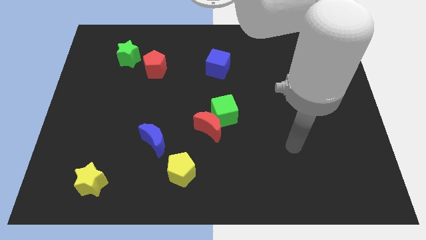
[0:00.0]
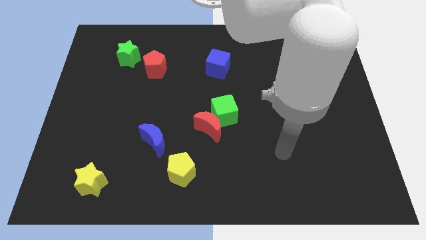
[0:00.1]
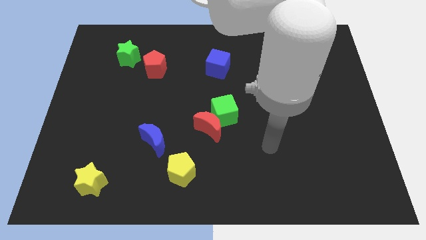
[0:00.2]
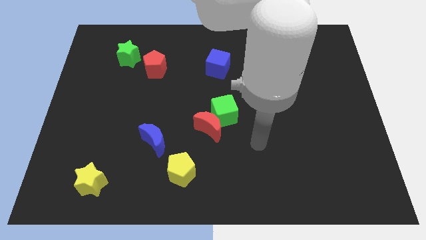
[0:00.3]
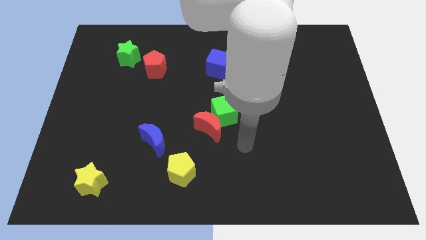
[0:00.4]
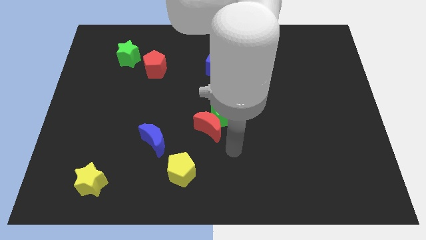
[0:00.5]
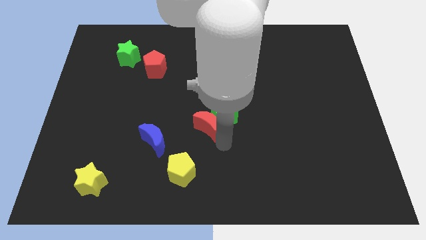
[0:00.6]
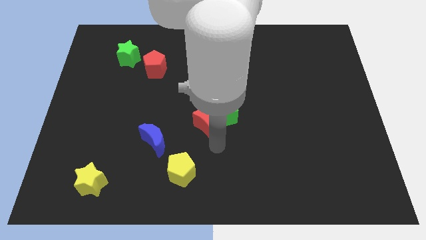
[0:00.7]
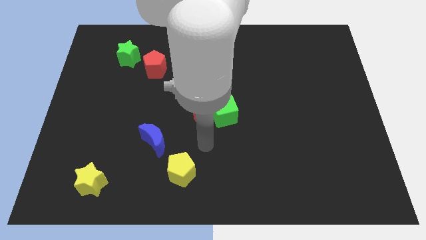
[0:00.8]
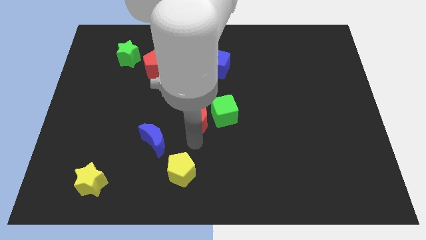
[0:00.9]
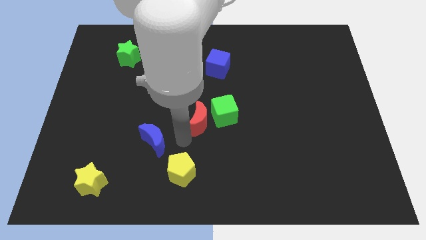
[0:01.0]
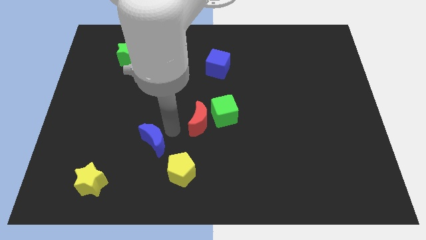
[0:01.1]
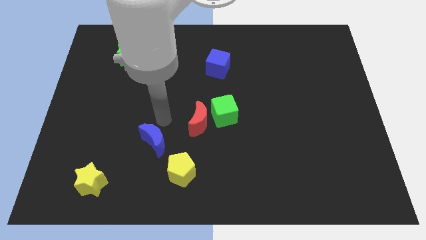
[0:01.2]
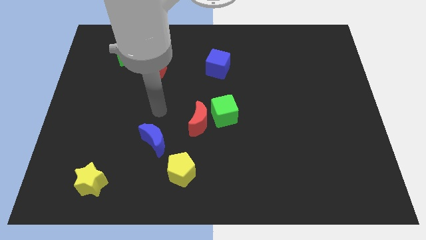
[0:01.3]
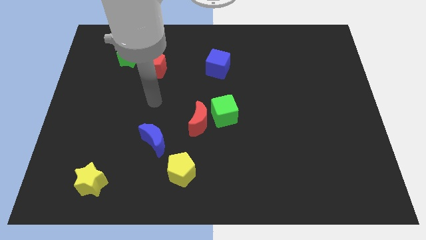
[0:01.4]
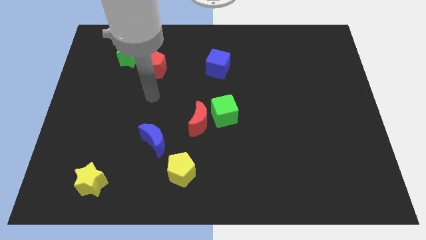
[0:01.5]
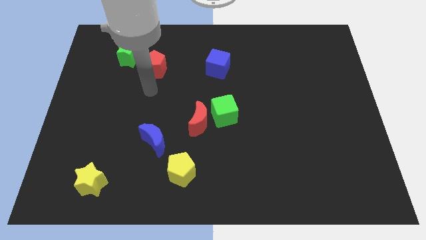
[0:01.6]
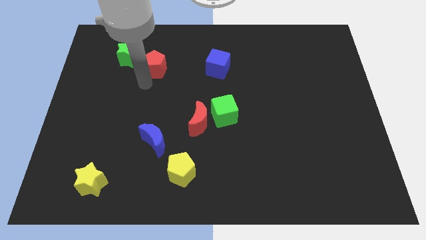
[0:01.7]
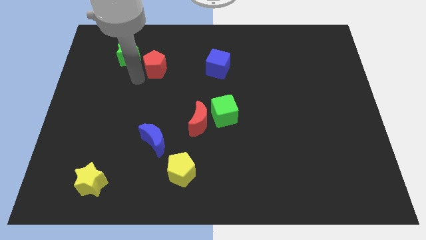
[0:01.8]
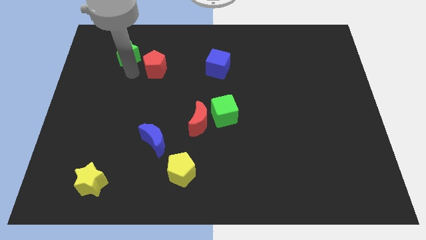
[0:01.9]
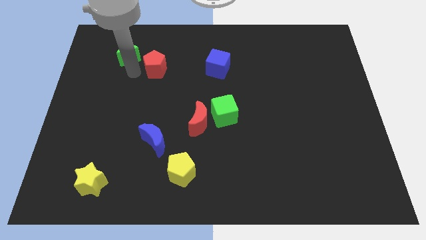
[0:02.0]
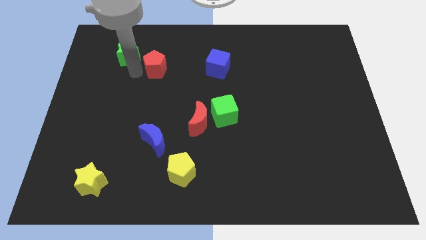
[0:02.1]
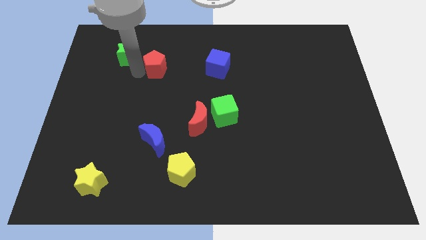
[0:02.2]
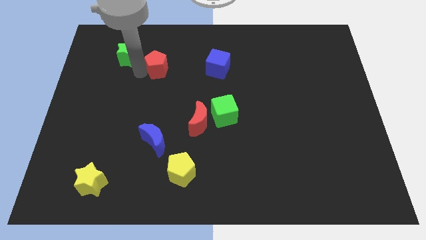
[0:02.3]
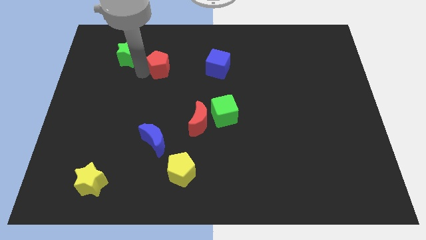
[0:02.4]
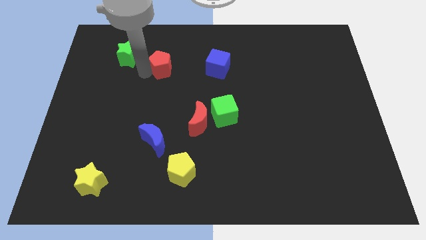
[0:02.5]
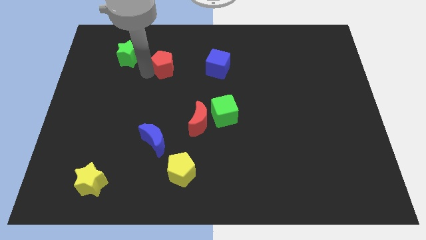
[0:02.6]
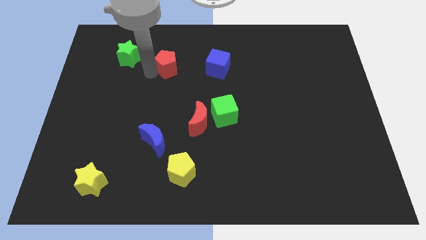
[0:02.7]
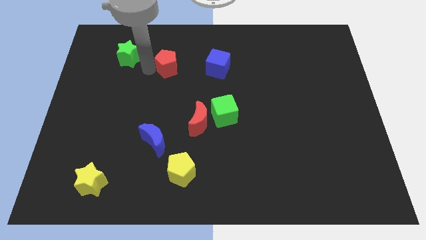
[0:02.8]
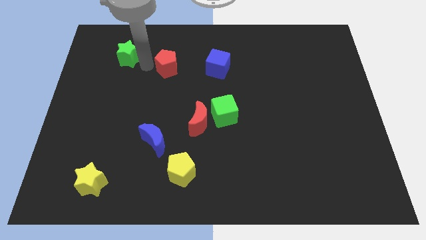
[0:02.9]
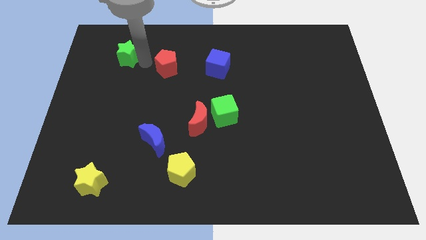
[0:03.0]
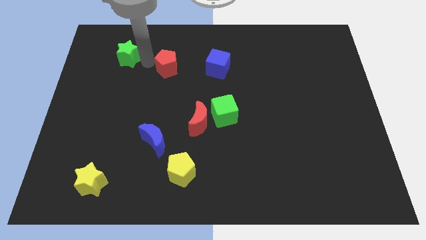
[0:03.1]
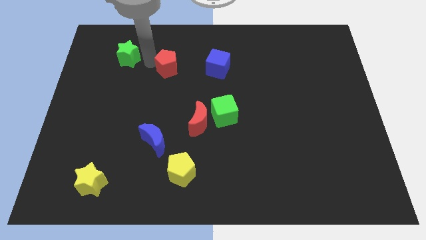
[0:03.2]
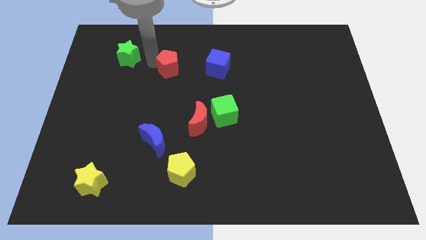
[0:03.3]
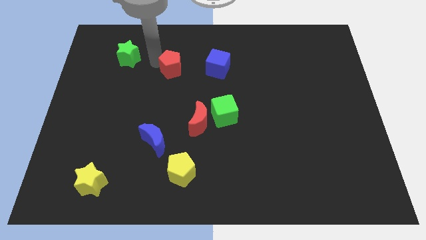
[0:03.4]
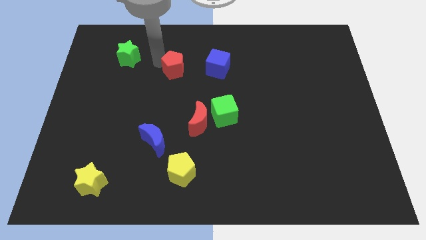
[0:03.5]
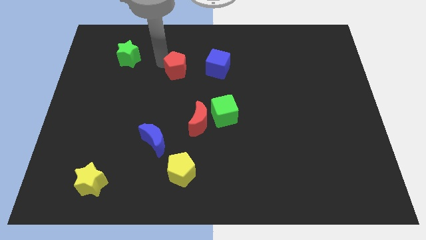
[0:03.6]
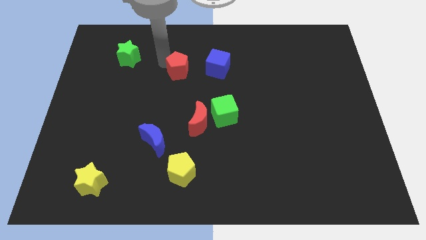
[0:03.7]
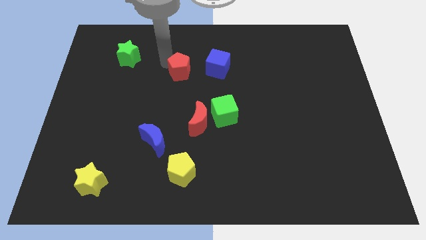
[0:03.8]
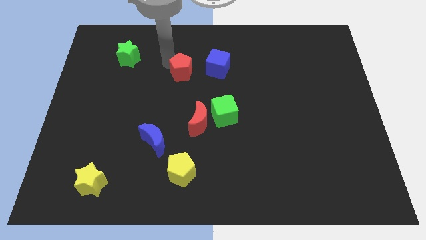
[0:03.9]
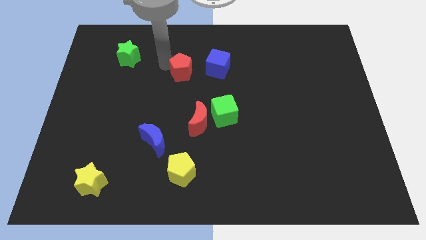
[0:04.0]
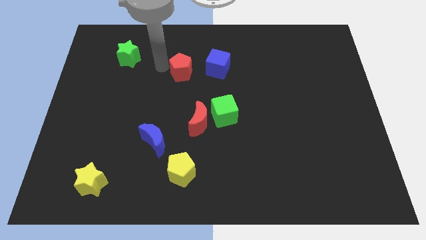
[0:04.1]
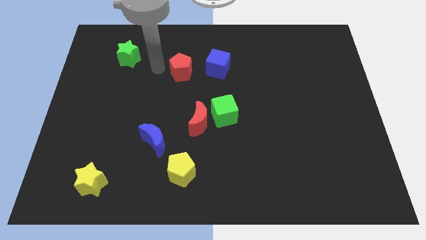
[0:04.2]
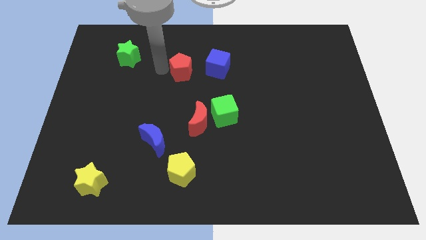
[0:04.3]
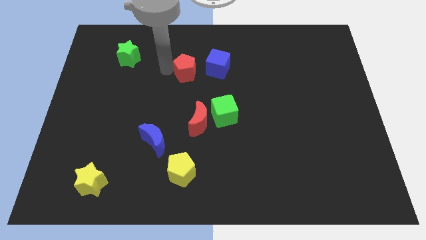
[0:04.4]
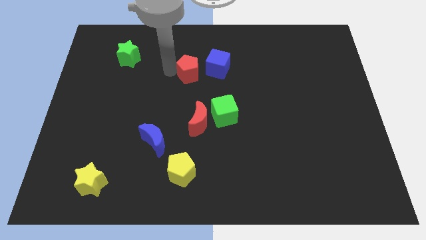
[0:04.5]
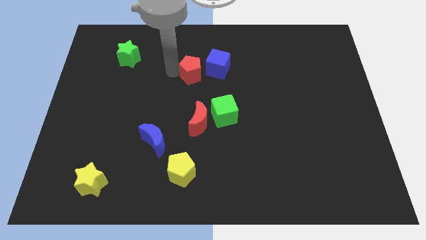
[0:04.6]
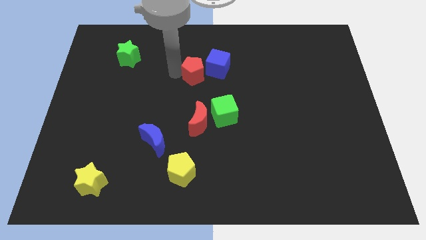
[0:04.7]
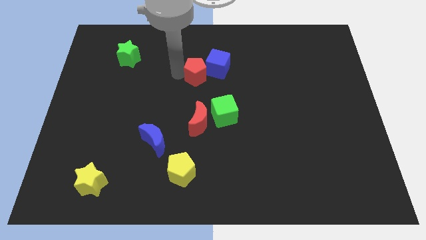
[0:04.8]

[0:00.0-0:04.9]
move the red pentagon close to the blue cube

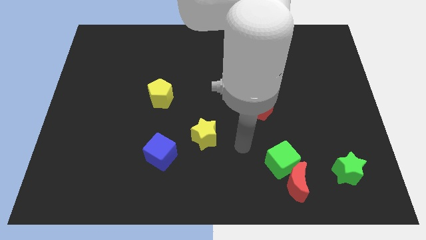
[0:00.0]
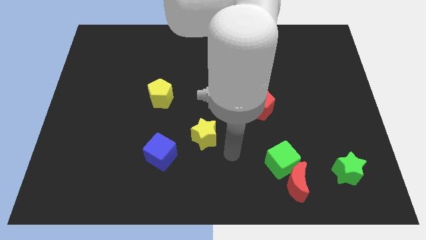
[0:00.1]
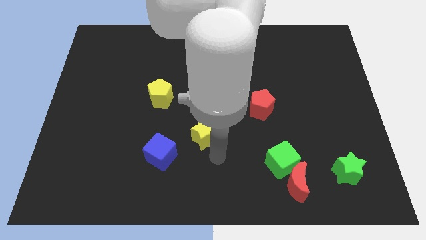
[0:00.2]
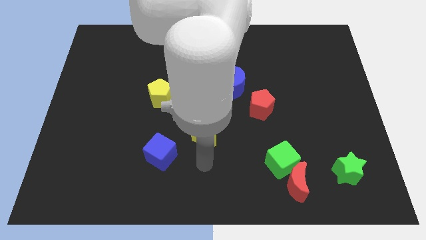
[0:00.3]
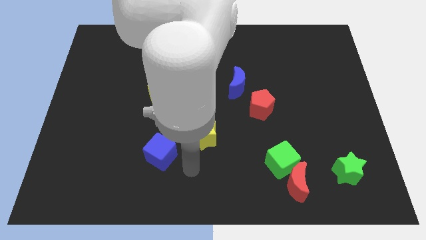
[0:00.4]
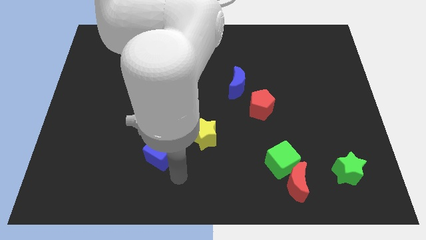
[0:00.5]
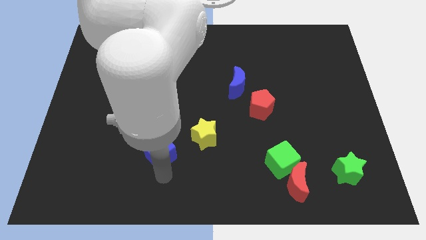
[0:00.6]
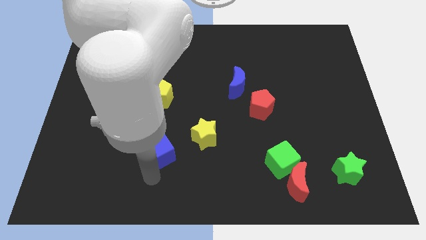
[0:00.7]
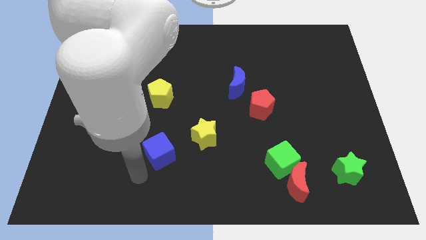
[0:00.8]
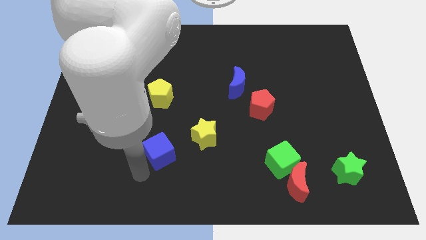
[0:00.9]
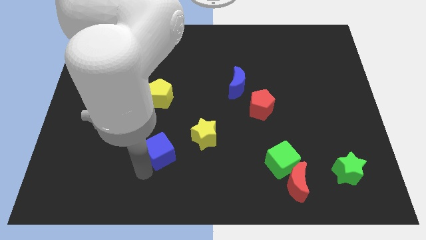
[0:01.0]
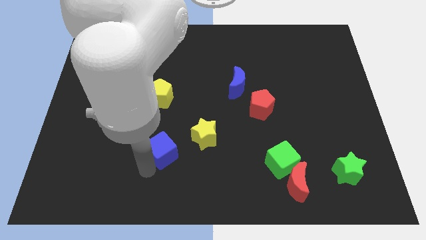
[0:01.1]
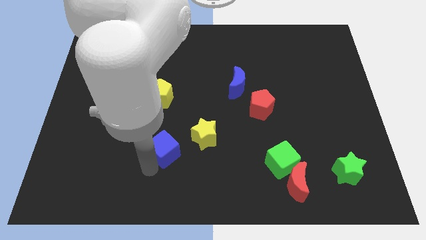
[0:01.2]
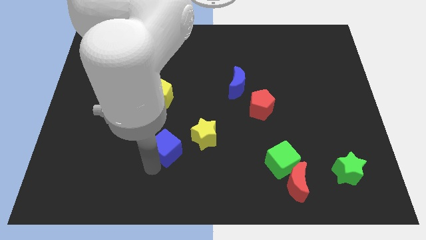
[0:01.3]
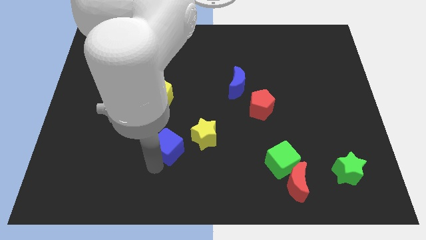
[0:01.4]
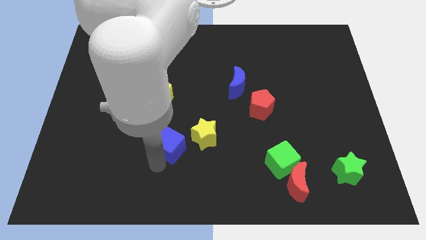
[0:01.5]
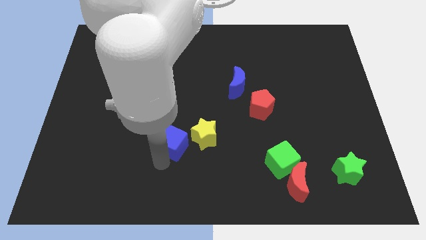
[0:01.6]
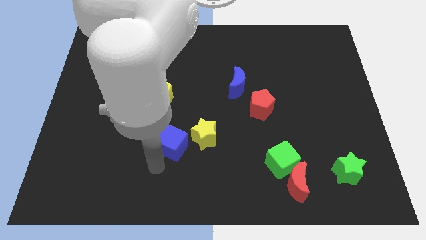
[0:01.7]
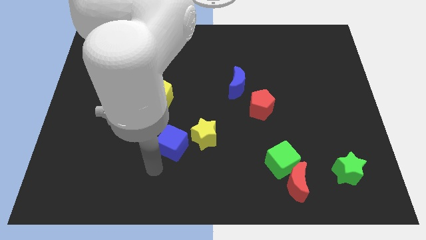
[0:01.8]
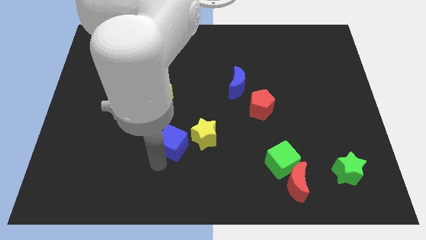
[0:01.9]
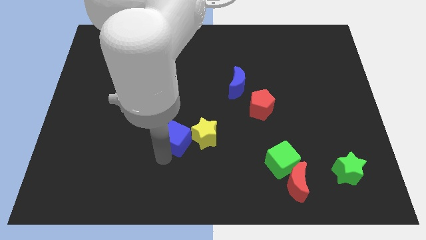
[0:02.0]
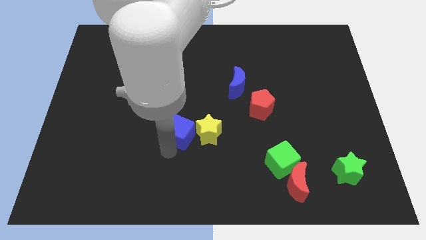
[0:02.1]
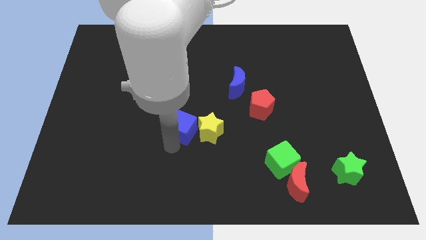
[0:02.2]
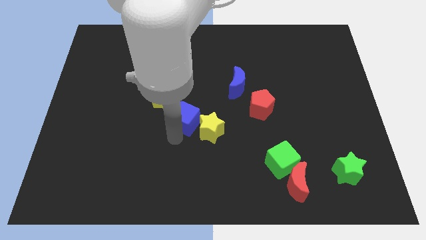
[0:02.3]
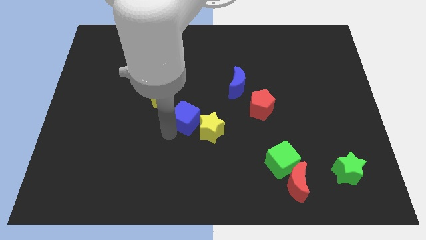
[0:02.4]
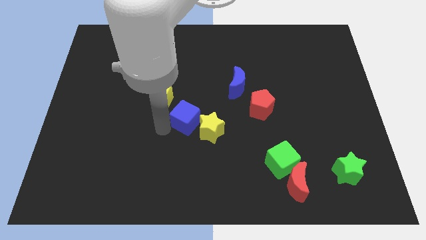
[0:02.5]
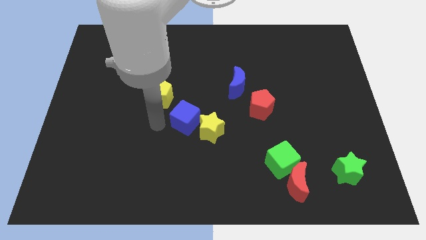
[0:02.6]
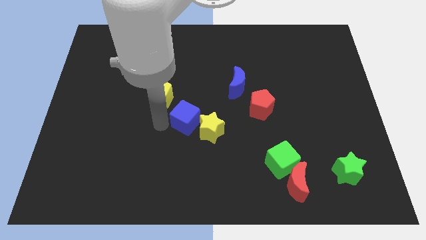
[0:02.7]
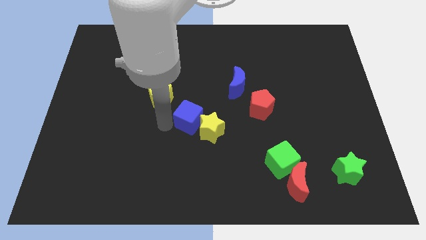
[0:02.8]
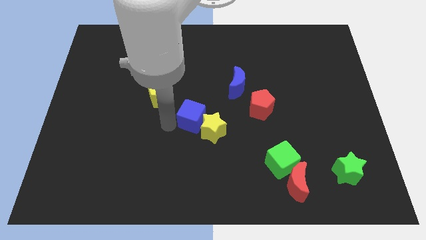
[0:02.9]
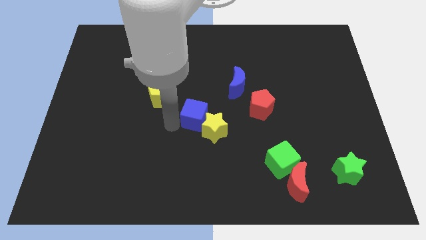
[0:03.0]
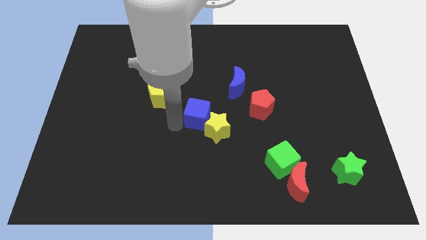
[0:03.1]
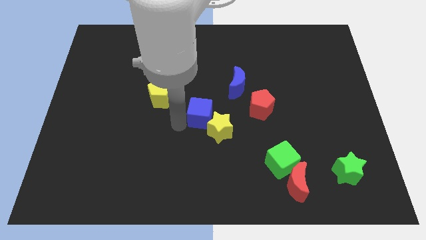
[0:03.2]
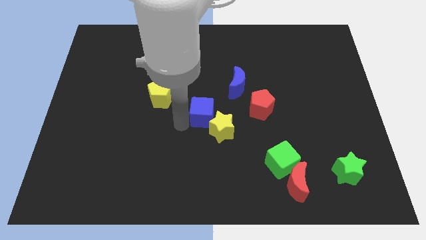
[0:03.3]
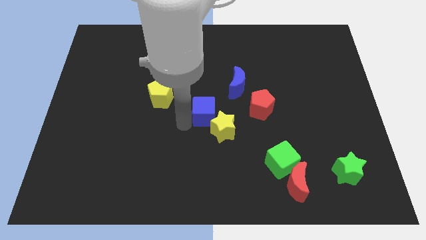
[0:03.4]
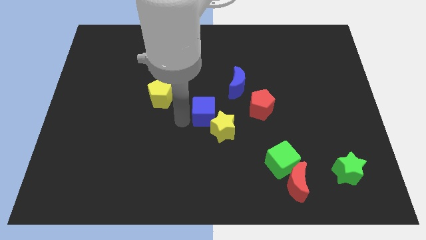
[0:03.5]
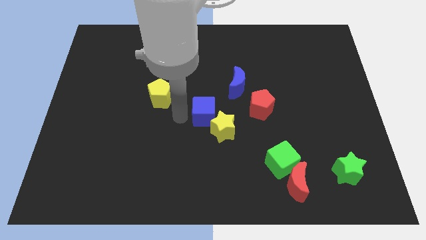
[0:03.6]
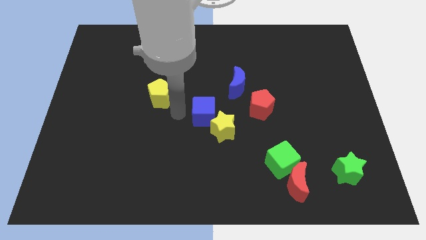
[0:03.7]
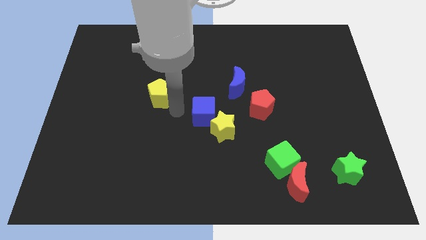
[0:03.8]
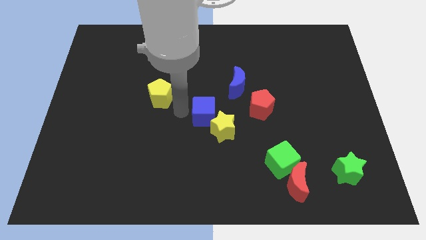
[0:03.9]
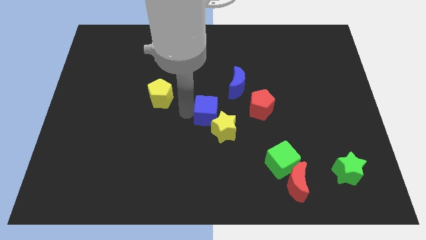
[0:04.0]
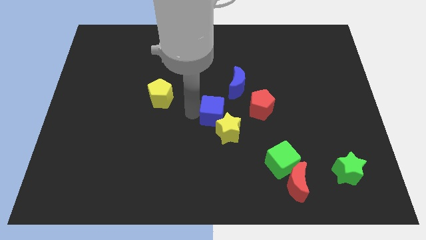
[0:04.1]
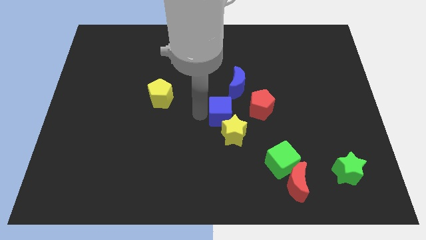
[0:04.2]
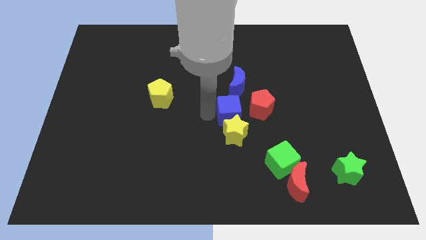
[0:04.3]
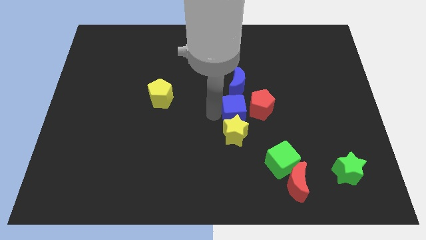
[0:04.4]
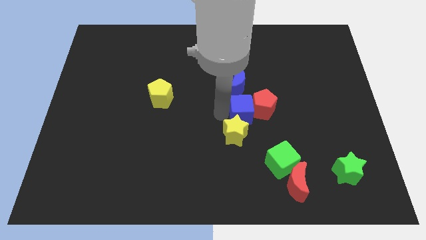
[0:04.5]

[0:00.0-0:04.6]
put the blue cube towards the red pentagon
